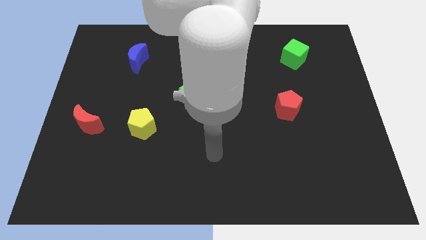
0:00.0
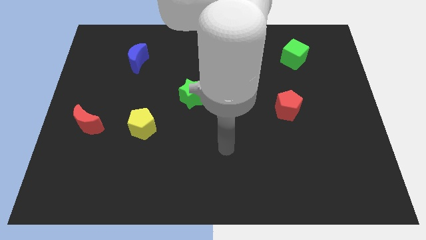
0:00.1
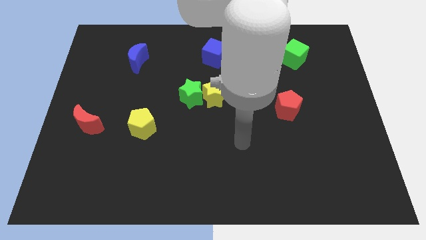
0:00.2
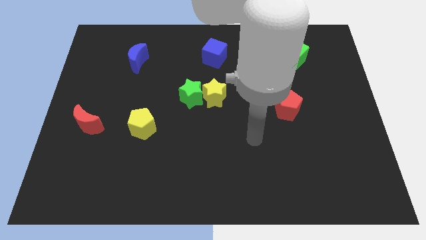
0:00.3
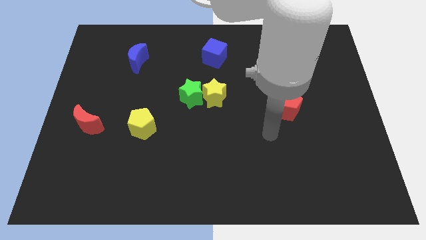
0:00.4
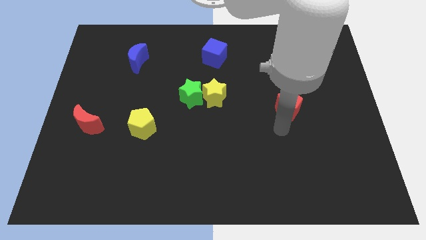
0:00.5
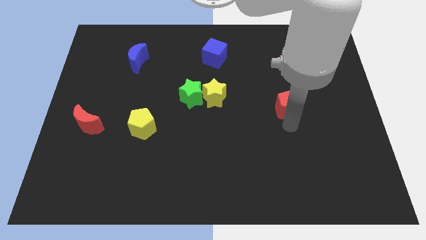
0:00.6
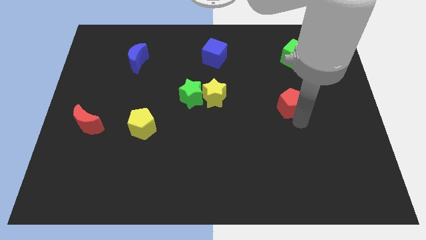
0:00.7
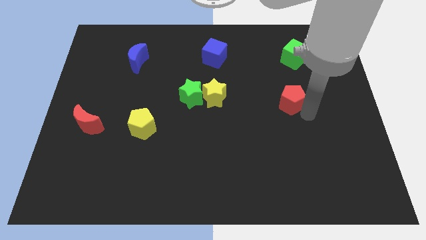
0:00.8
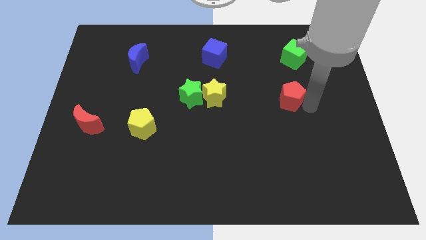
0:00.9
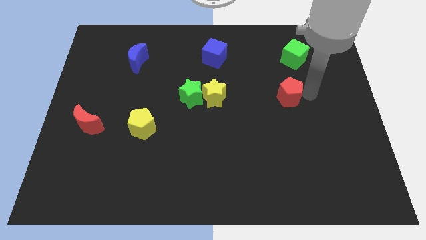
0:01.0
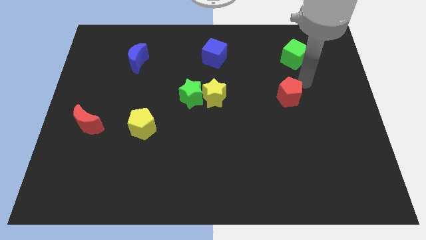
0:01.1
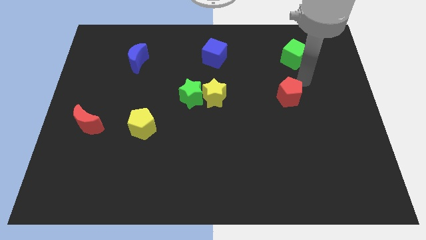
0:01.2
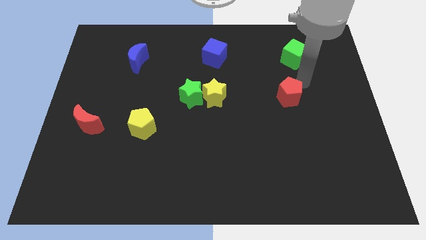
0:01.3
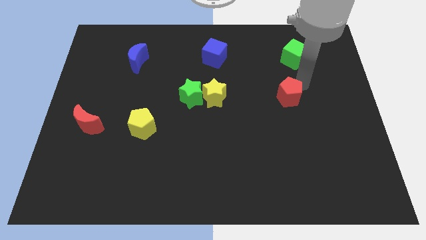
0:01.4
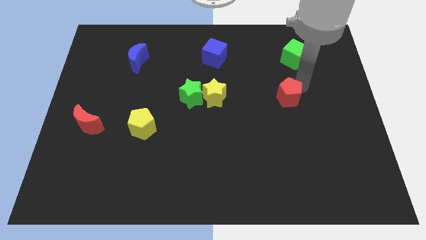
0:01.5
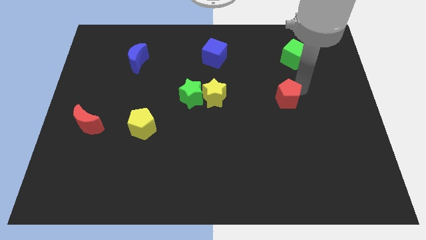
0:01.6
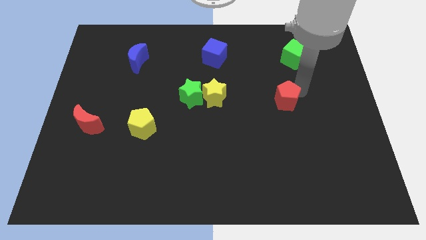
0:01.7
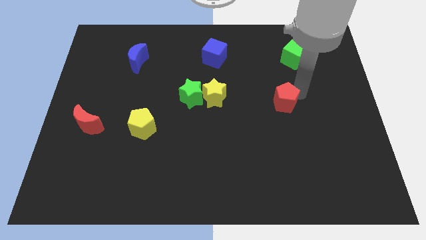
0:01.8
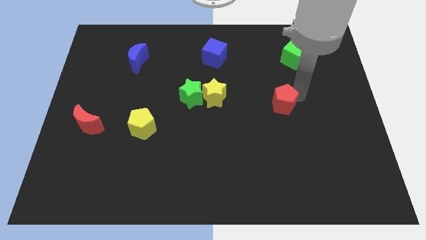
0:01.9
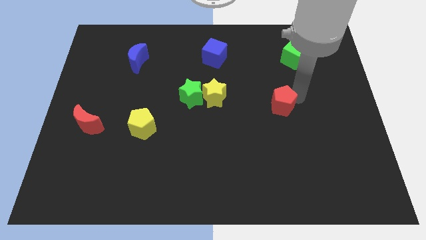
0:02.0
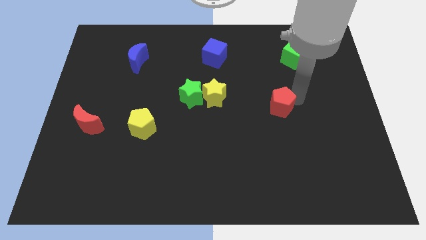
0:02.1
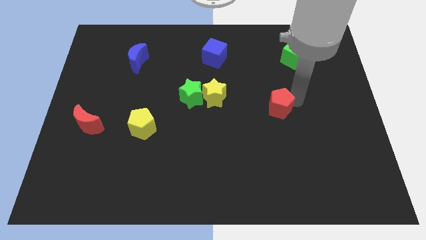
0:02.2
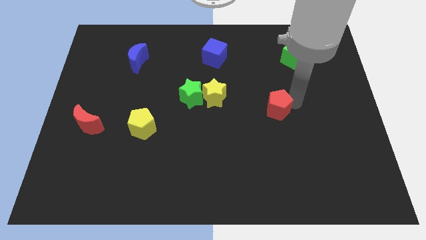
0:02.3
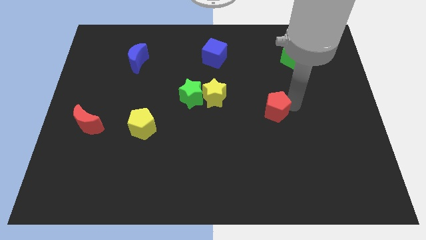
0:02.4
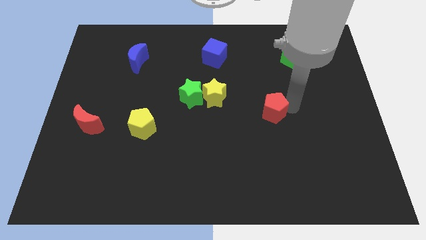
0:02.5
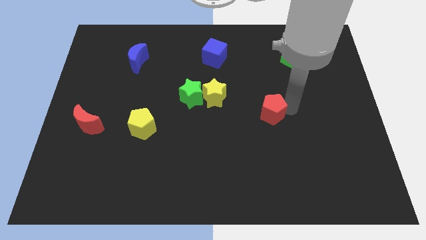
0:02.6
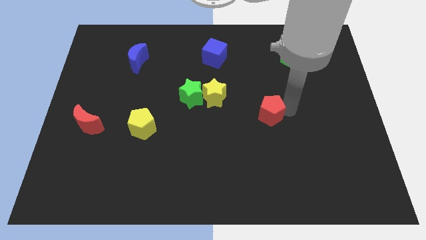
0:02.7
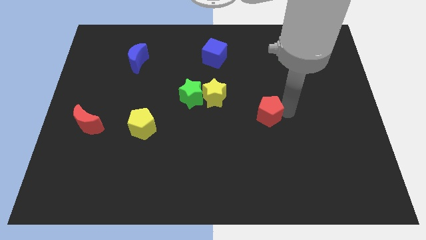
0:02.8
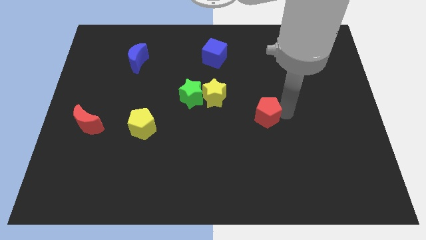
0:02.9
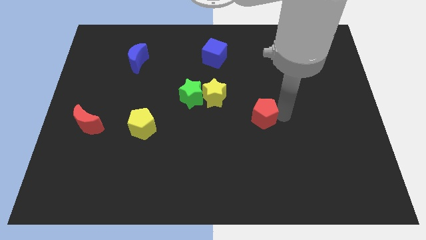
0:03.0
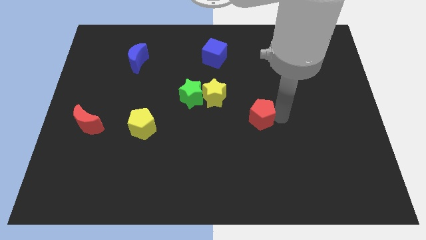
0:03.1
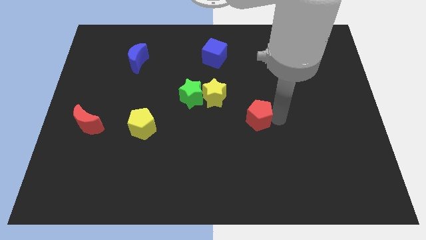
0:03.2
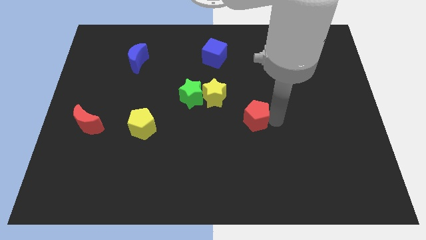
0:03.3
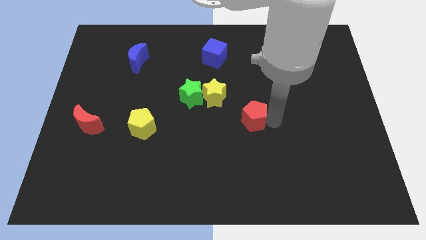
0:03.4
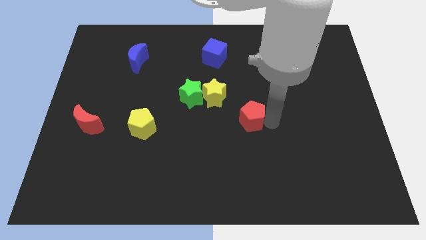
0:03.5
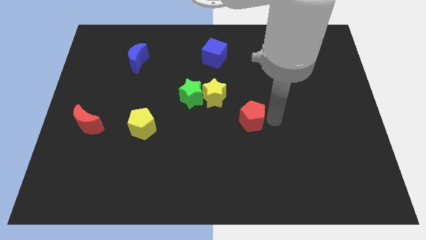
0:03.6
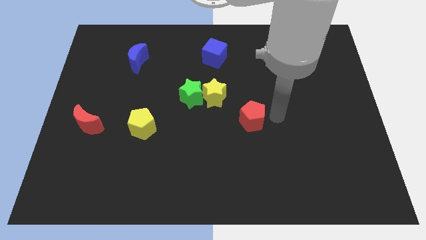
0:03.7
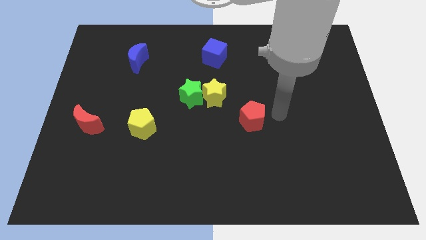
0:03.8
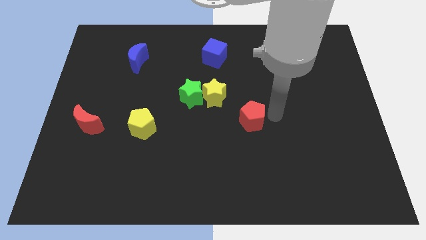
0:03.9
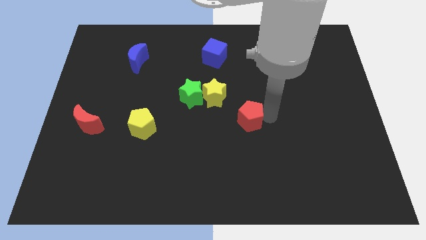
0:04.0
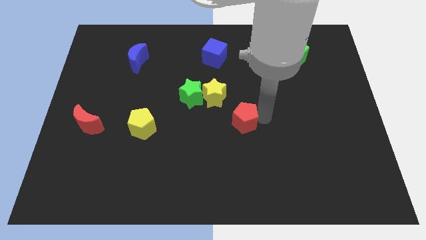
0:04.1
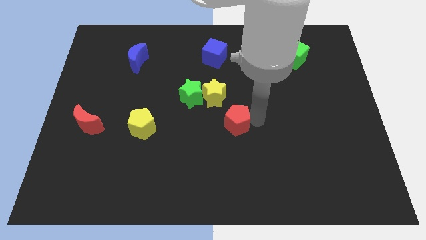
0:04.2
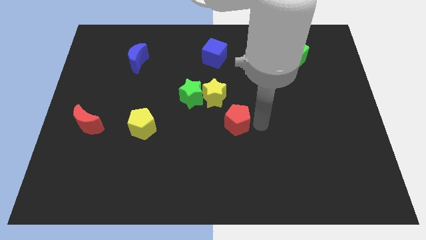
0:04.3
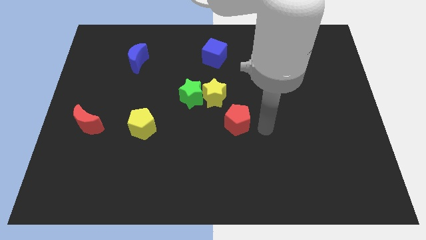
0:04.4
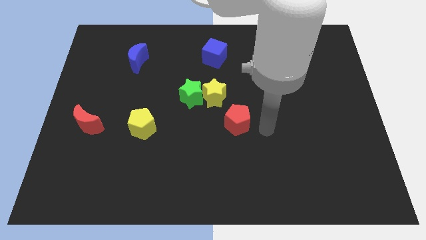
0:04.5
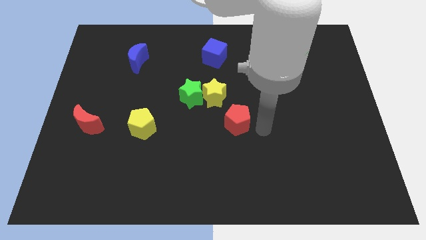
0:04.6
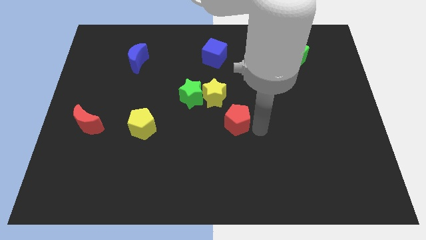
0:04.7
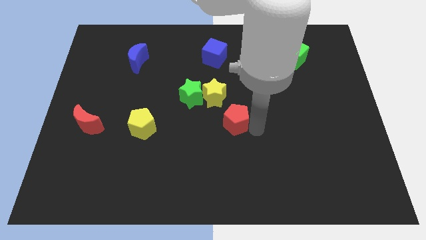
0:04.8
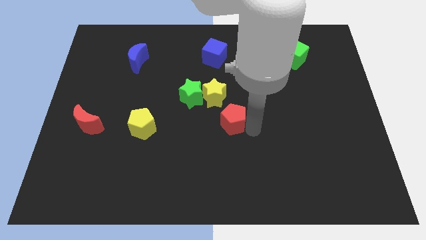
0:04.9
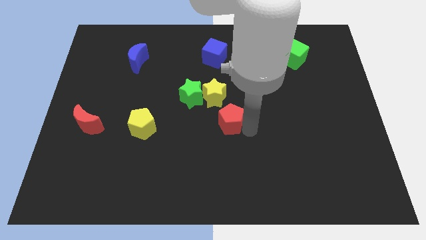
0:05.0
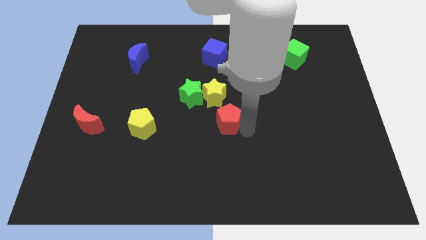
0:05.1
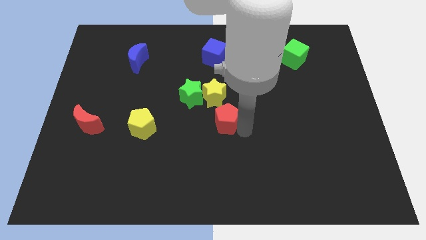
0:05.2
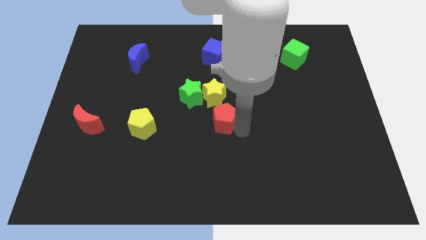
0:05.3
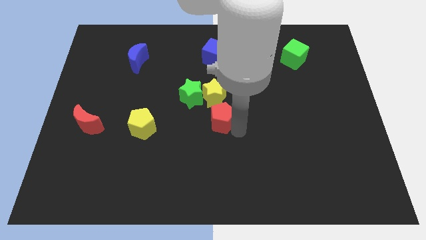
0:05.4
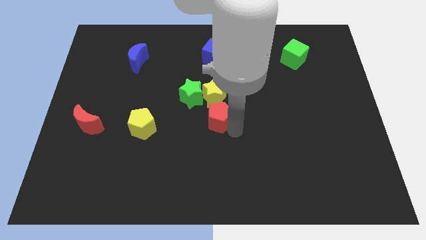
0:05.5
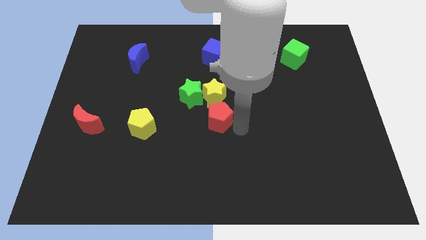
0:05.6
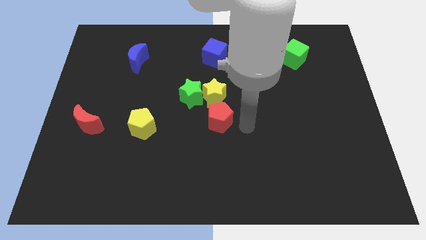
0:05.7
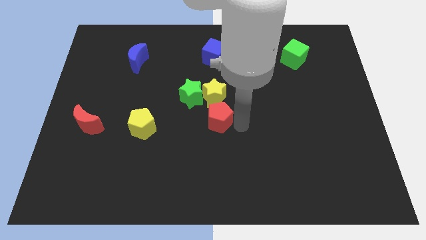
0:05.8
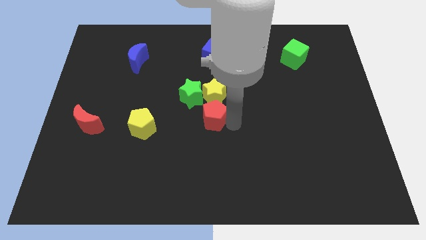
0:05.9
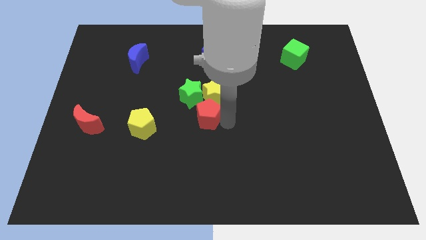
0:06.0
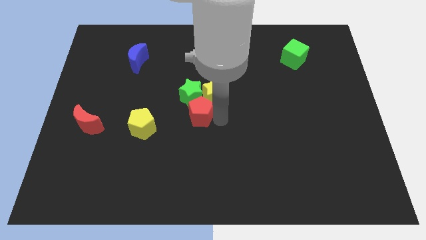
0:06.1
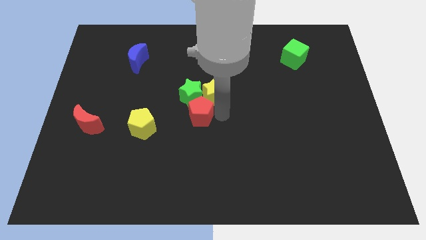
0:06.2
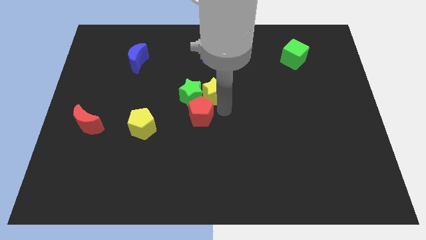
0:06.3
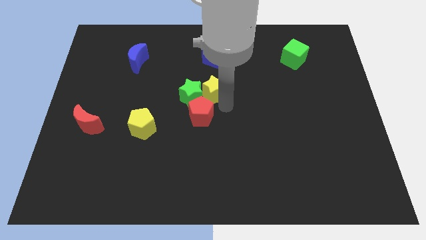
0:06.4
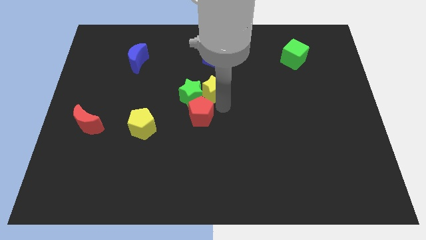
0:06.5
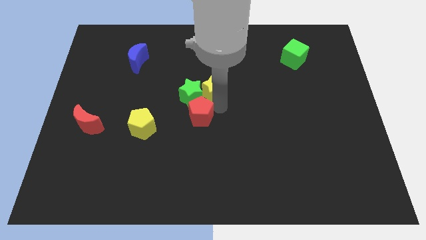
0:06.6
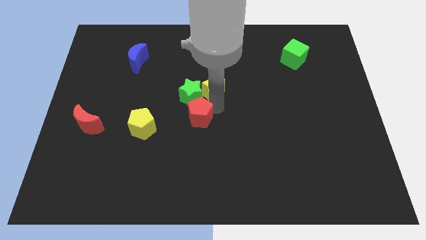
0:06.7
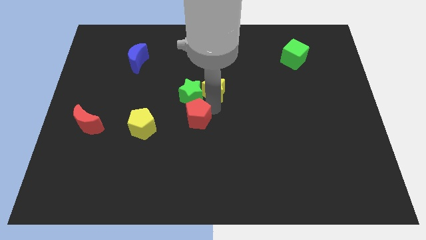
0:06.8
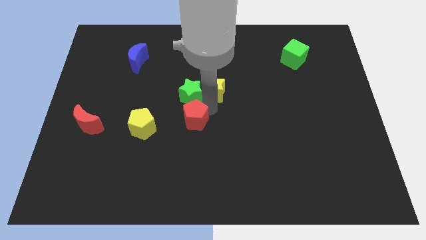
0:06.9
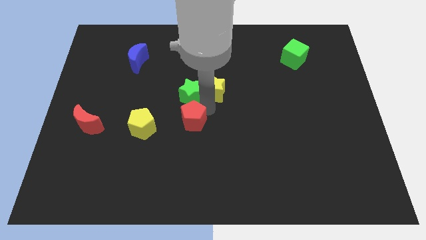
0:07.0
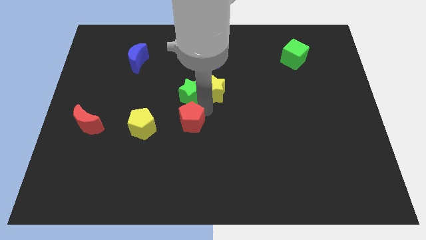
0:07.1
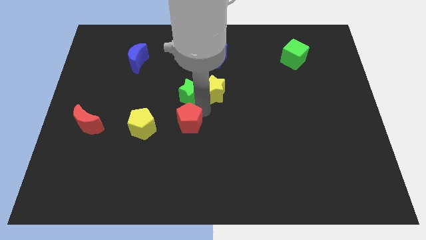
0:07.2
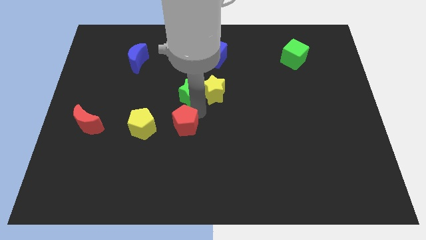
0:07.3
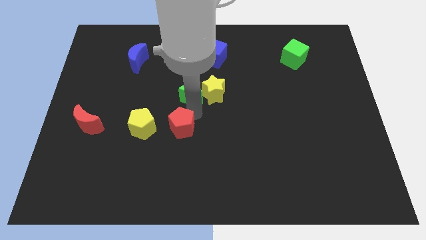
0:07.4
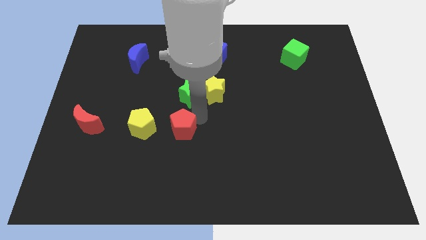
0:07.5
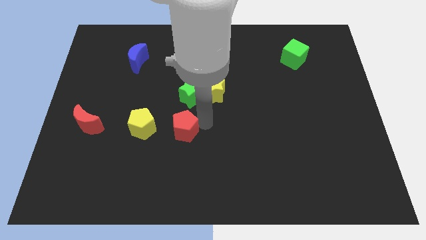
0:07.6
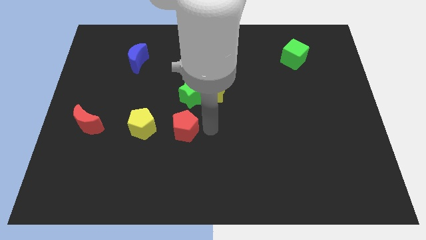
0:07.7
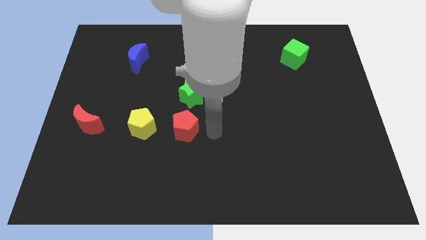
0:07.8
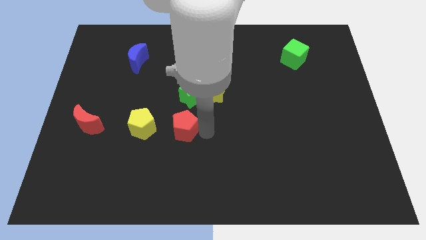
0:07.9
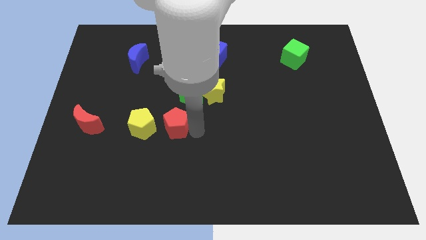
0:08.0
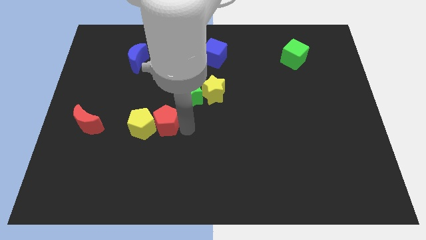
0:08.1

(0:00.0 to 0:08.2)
put the red pentagon close to the yellow pentagon

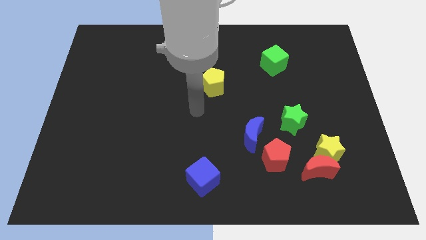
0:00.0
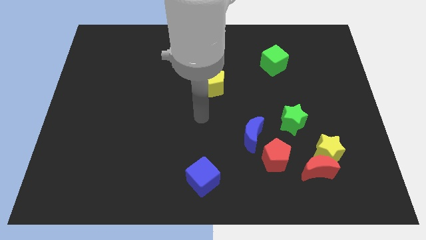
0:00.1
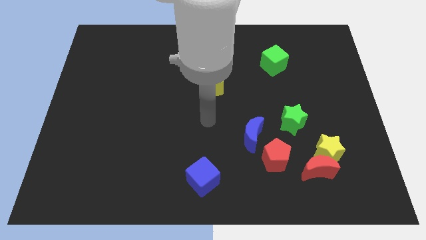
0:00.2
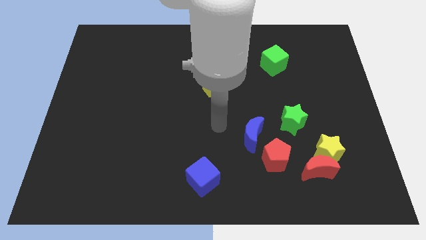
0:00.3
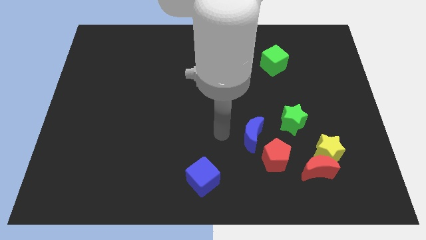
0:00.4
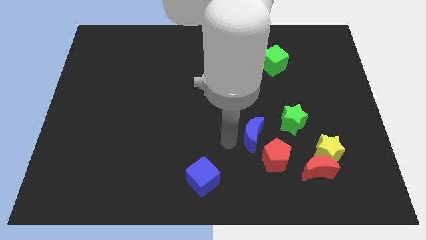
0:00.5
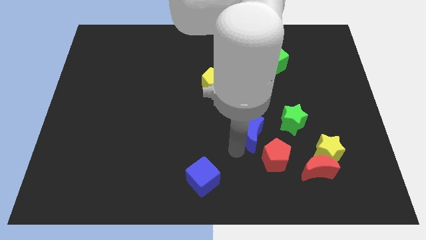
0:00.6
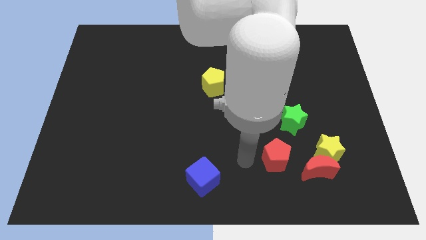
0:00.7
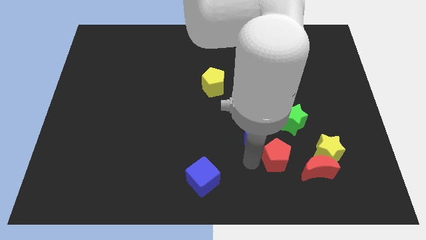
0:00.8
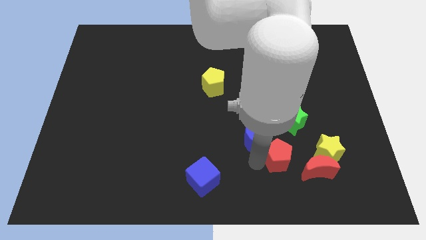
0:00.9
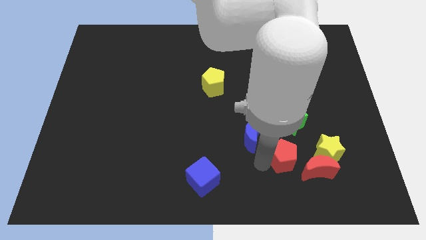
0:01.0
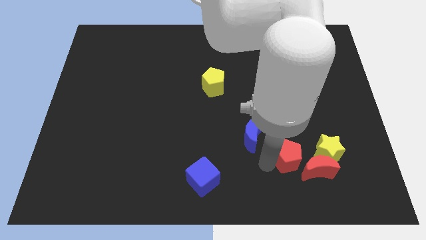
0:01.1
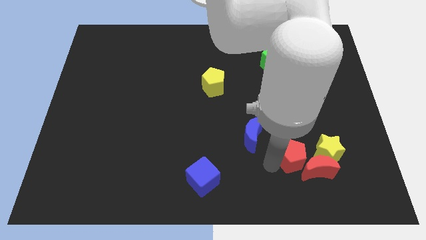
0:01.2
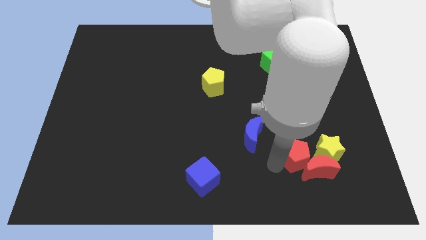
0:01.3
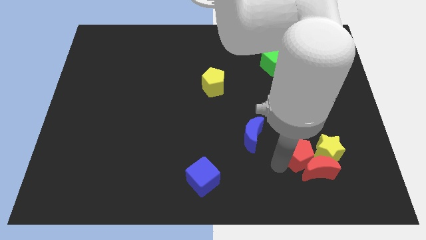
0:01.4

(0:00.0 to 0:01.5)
move the red pentagon towards the yellow star
